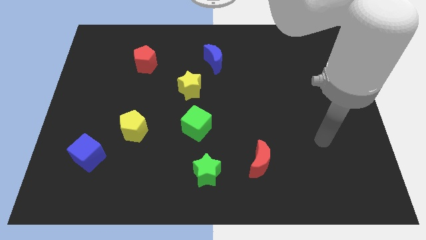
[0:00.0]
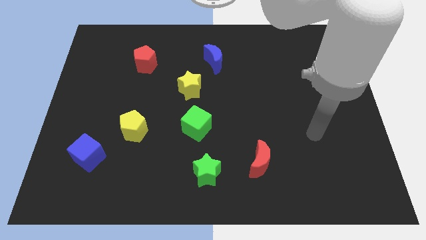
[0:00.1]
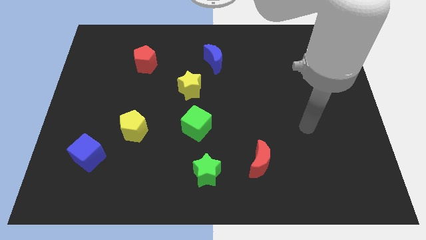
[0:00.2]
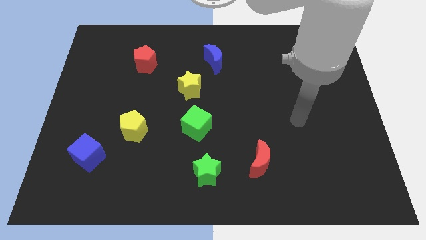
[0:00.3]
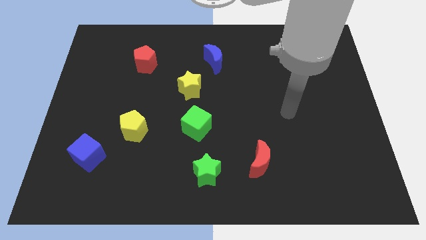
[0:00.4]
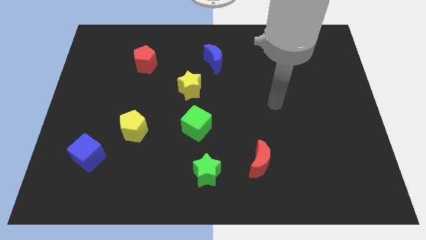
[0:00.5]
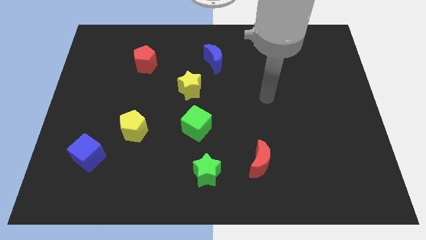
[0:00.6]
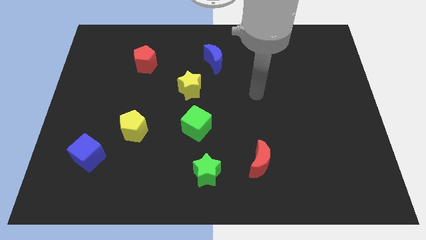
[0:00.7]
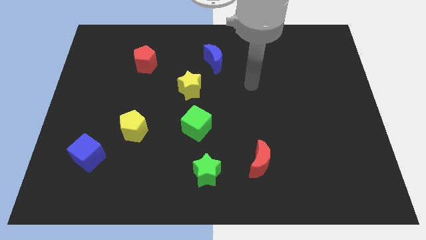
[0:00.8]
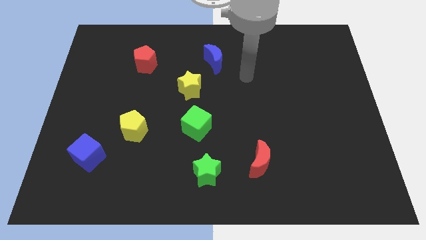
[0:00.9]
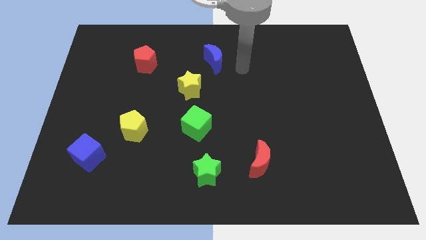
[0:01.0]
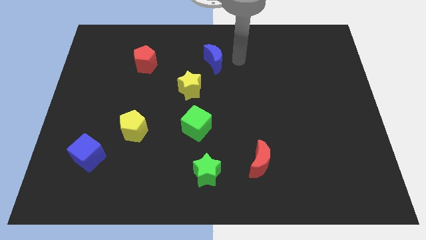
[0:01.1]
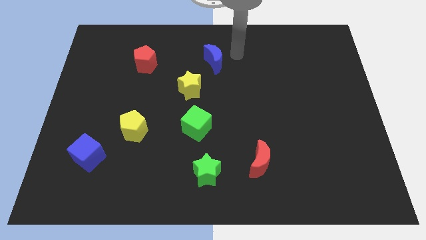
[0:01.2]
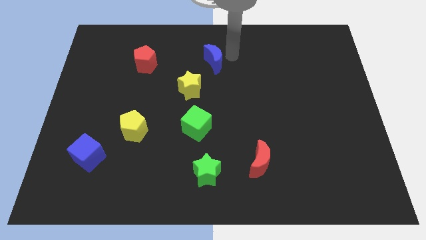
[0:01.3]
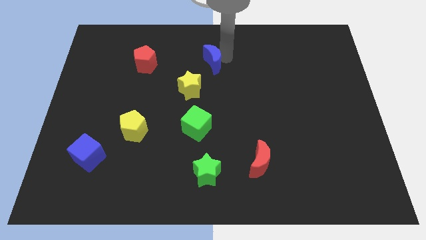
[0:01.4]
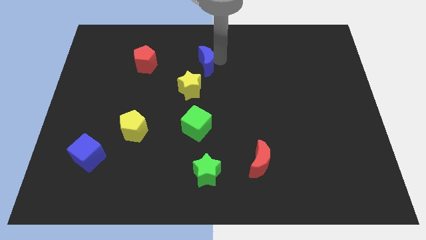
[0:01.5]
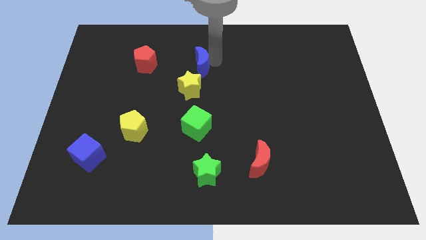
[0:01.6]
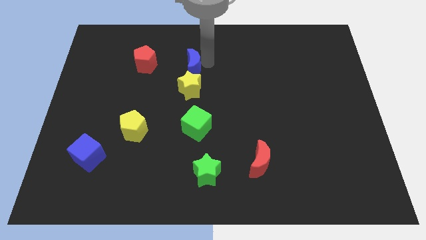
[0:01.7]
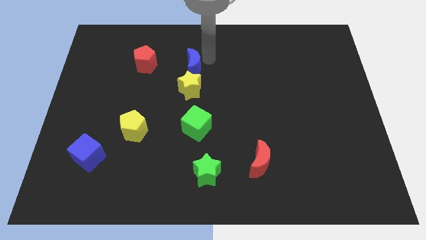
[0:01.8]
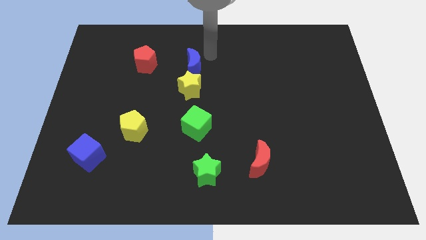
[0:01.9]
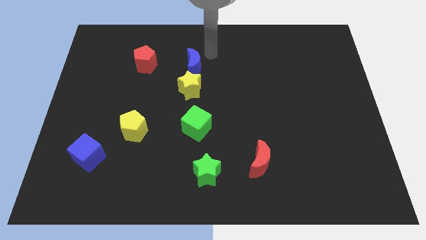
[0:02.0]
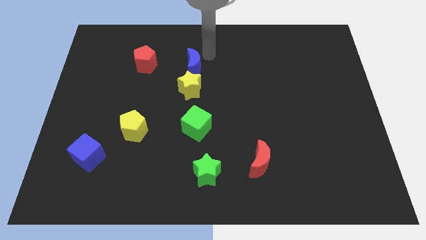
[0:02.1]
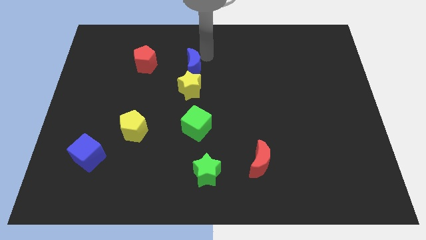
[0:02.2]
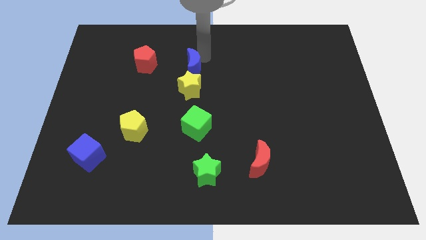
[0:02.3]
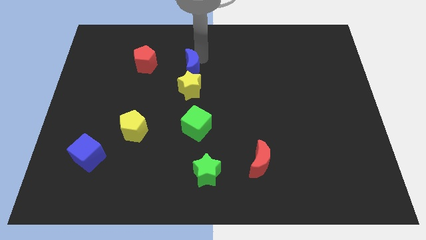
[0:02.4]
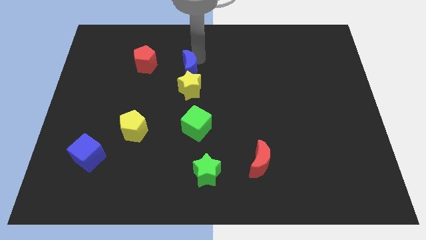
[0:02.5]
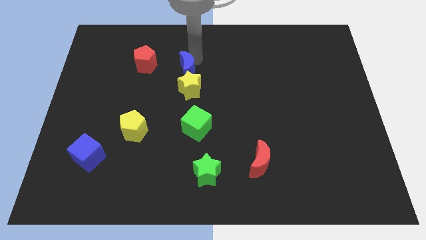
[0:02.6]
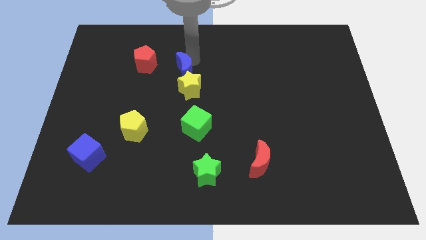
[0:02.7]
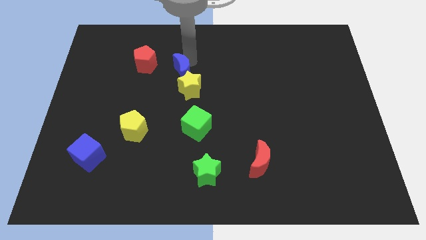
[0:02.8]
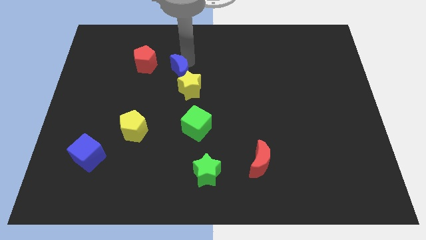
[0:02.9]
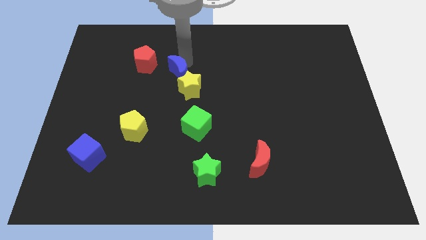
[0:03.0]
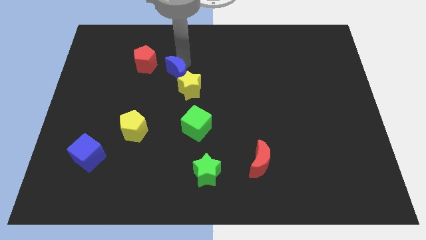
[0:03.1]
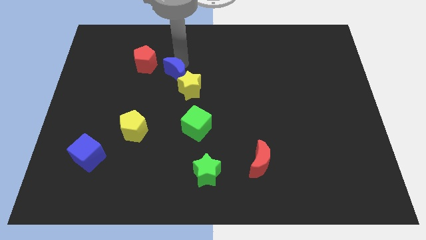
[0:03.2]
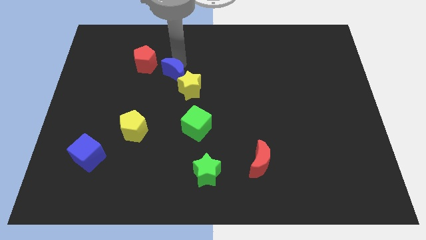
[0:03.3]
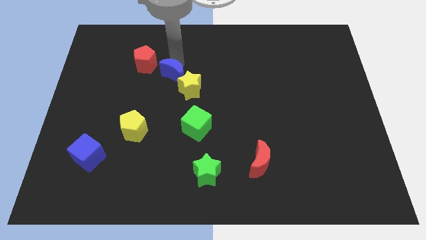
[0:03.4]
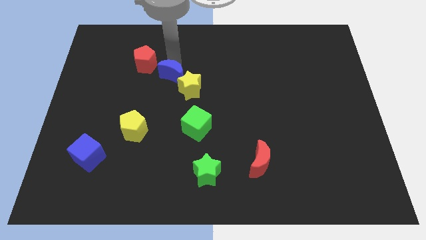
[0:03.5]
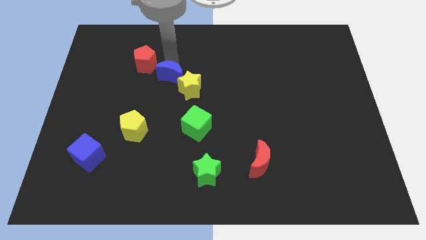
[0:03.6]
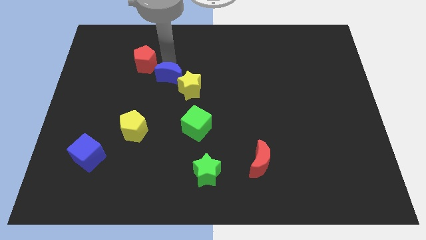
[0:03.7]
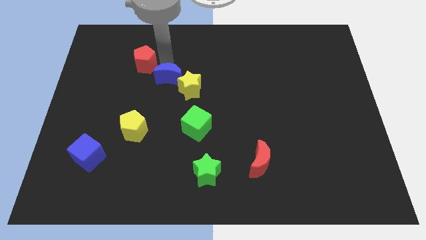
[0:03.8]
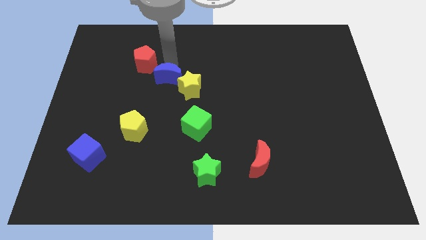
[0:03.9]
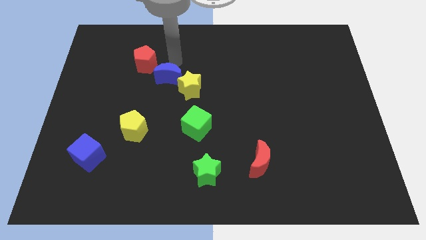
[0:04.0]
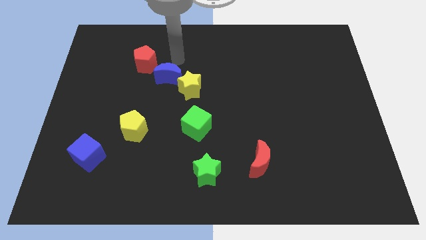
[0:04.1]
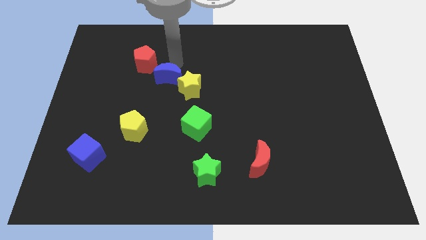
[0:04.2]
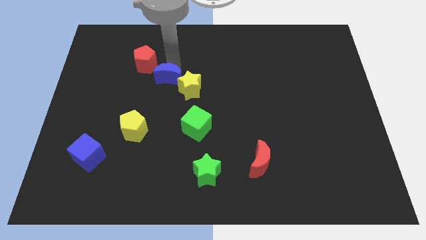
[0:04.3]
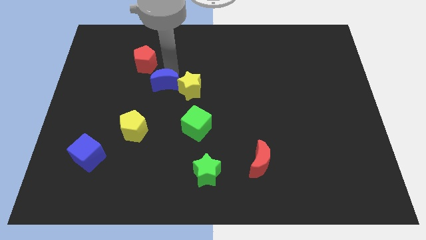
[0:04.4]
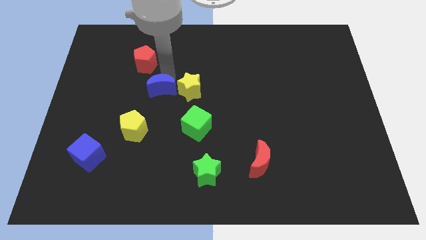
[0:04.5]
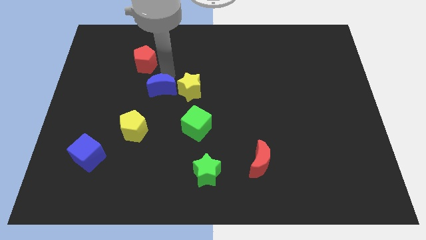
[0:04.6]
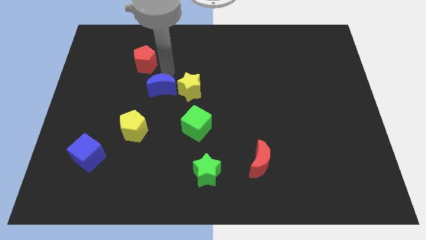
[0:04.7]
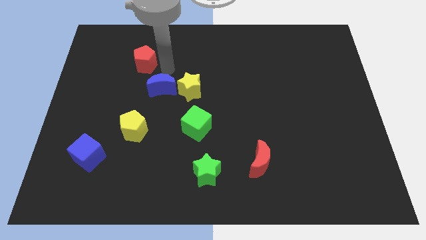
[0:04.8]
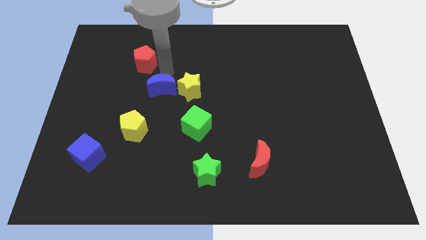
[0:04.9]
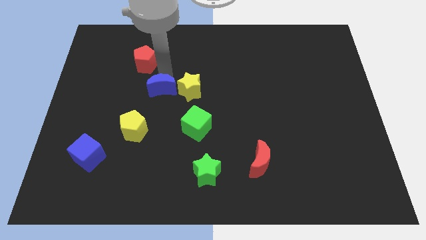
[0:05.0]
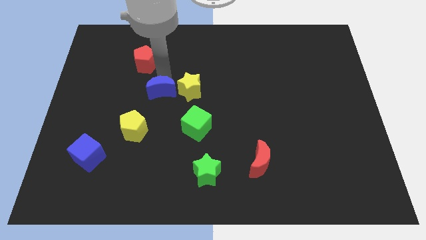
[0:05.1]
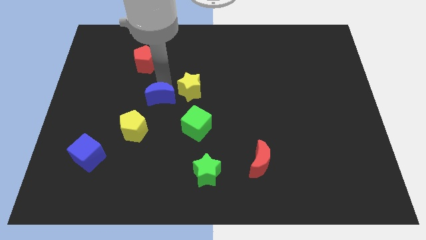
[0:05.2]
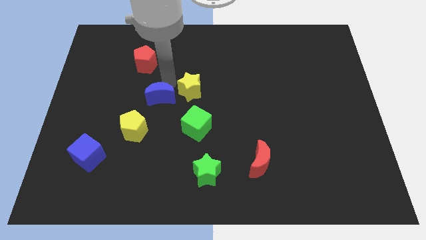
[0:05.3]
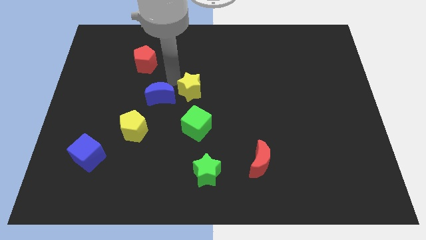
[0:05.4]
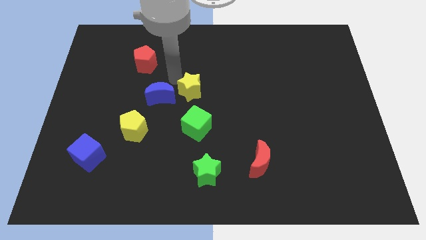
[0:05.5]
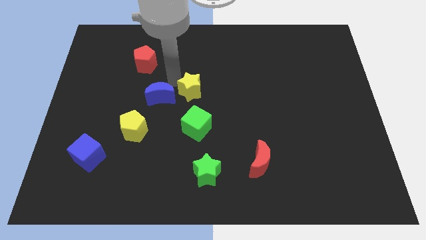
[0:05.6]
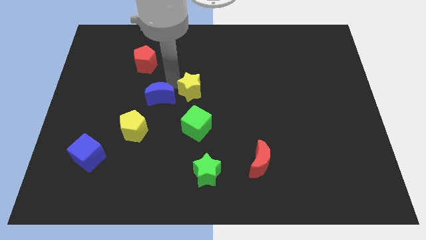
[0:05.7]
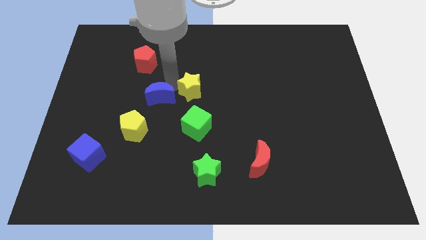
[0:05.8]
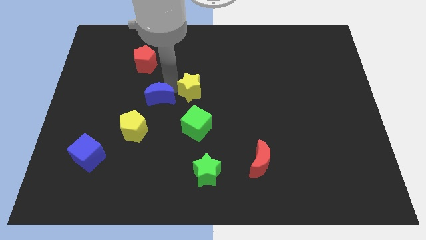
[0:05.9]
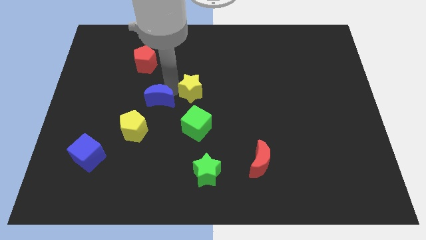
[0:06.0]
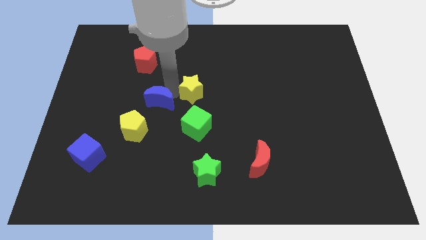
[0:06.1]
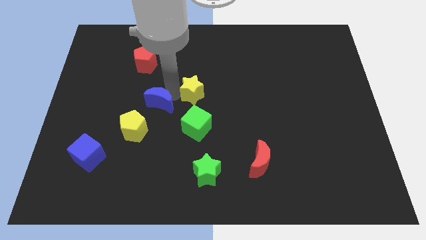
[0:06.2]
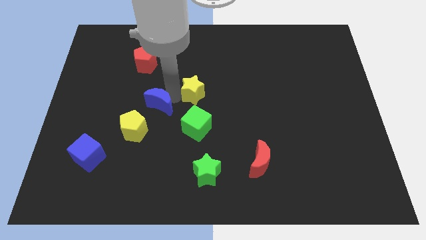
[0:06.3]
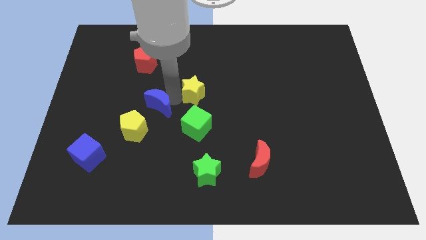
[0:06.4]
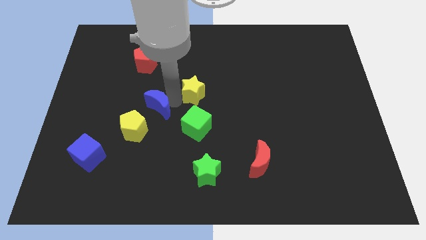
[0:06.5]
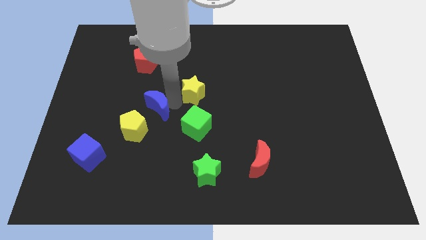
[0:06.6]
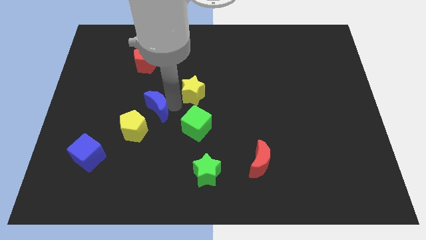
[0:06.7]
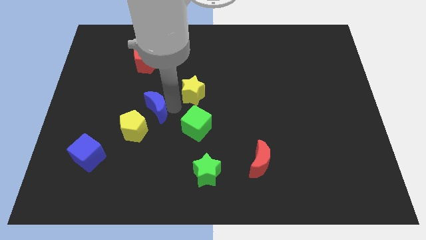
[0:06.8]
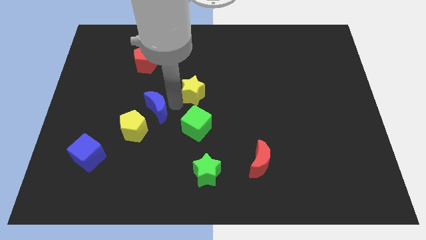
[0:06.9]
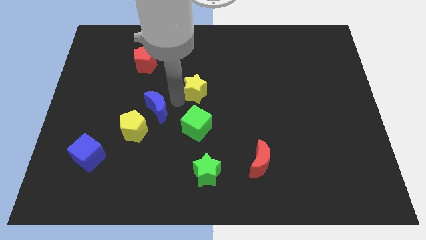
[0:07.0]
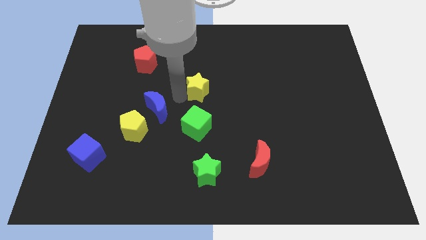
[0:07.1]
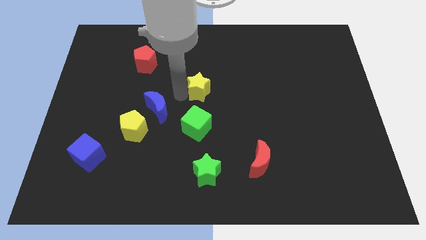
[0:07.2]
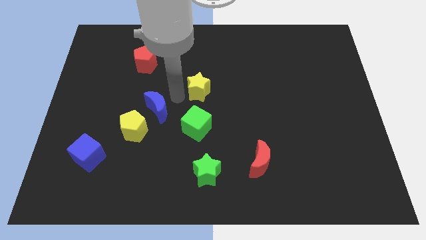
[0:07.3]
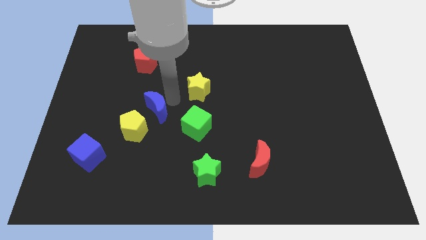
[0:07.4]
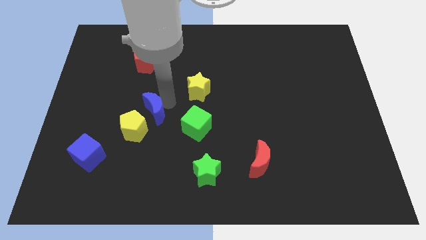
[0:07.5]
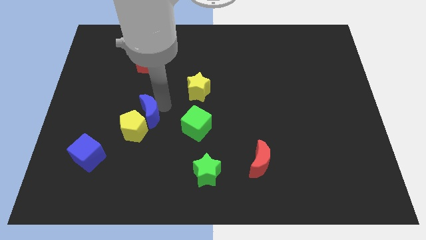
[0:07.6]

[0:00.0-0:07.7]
push the blue moon to the yellow pentagon
